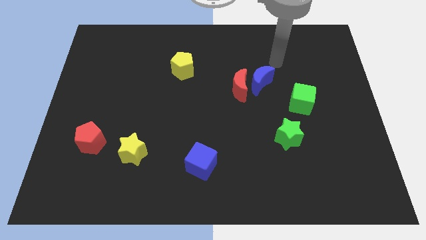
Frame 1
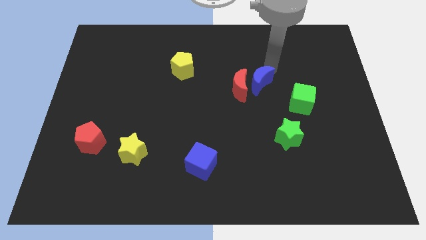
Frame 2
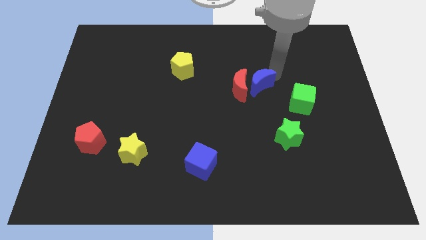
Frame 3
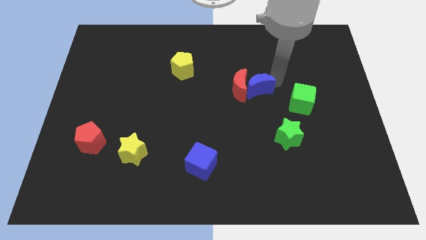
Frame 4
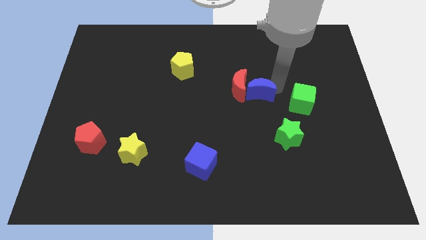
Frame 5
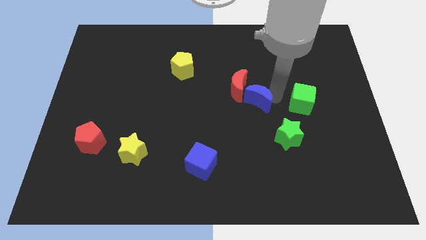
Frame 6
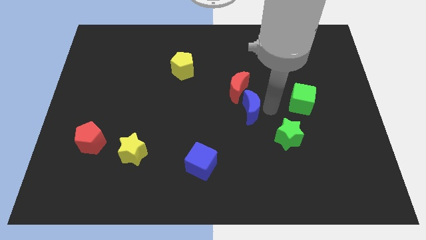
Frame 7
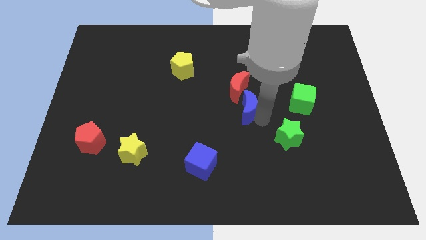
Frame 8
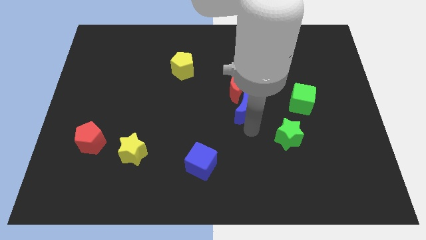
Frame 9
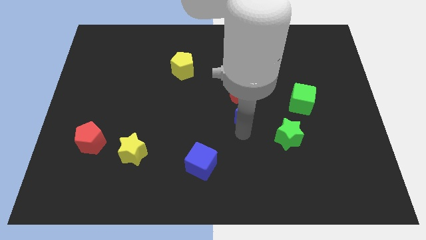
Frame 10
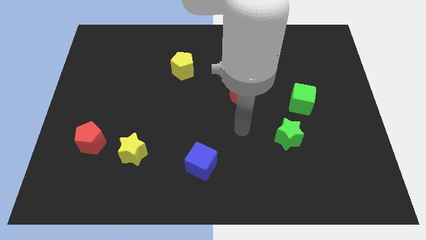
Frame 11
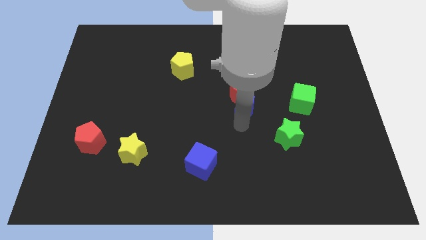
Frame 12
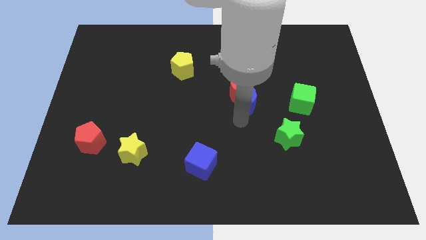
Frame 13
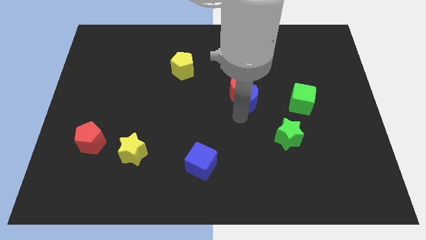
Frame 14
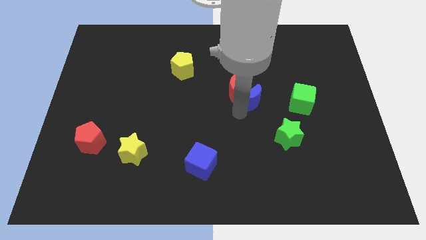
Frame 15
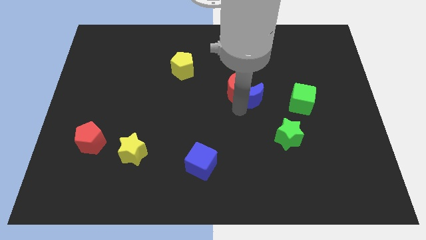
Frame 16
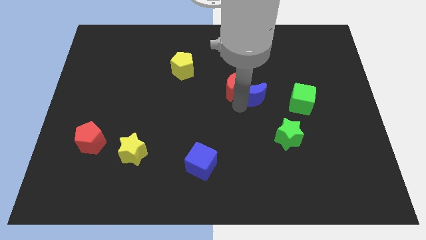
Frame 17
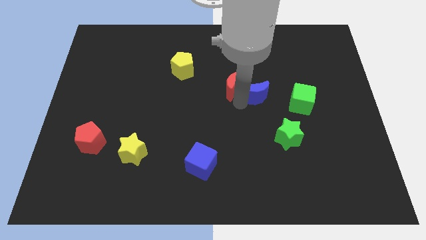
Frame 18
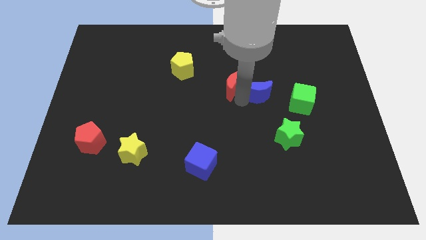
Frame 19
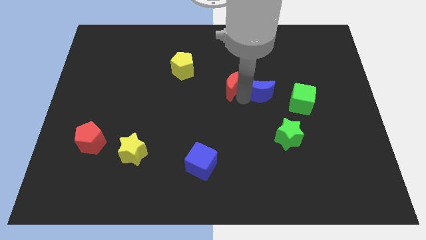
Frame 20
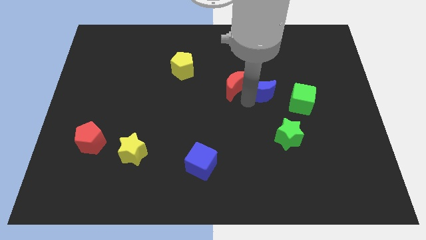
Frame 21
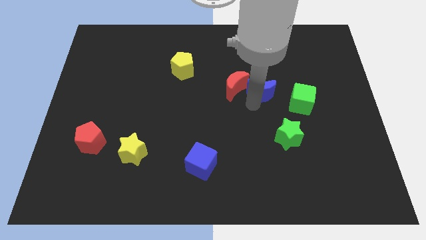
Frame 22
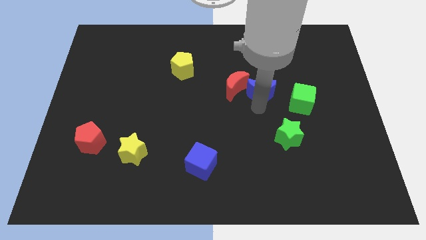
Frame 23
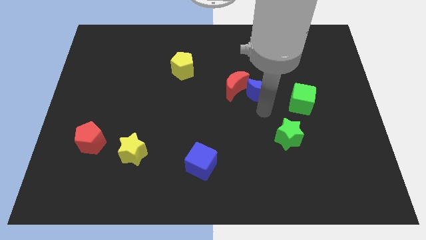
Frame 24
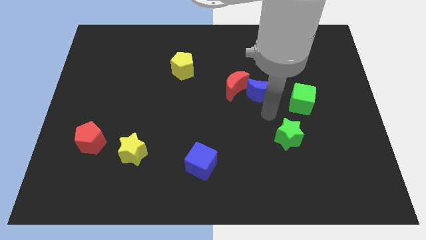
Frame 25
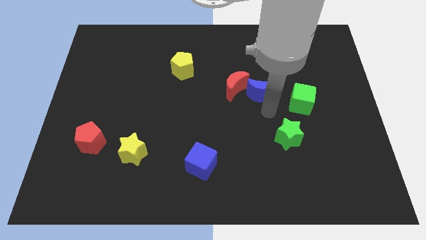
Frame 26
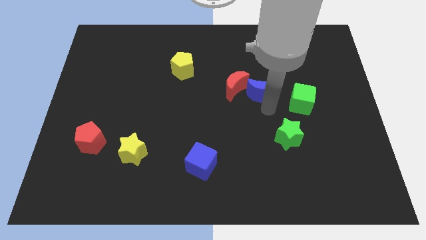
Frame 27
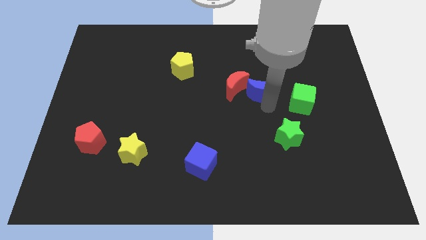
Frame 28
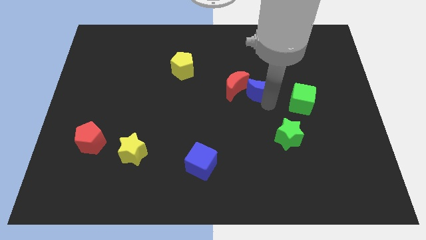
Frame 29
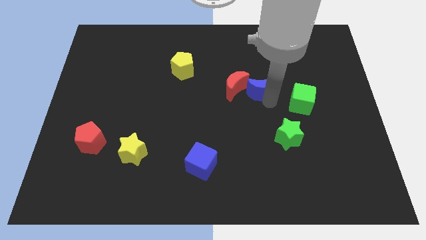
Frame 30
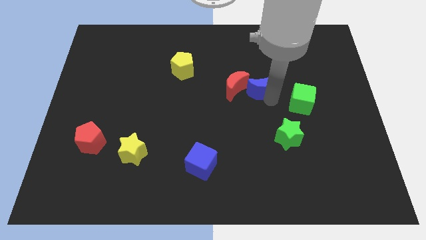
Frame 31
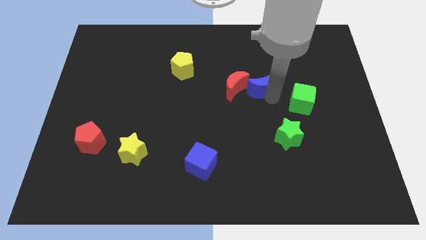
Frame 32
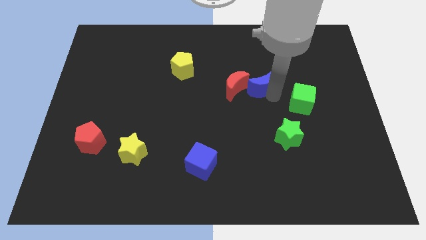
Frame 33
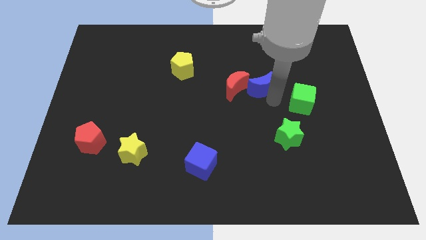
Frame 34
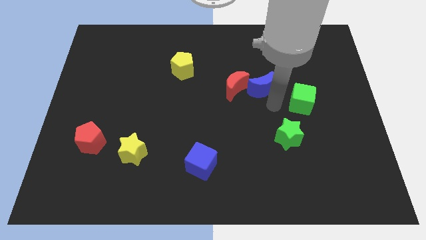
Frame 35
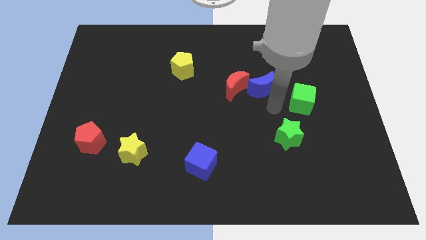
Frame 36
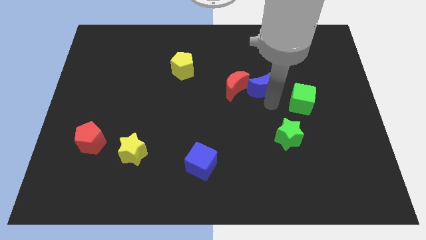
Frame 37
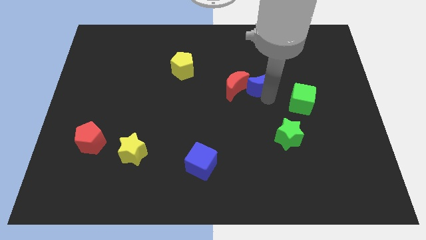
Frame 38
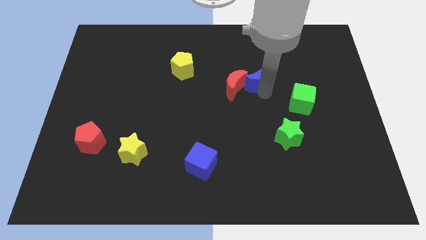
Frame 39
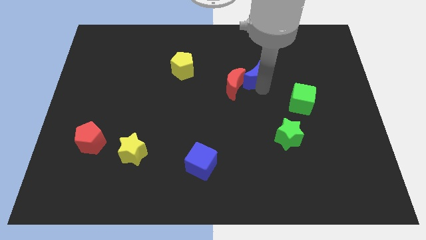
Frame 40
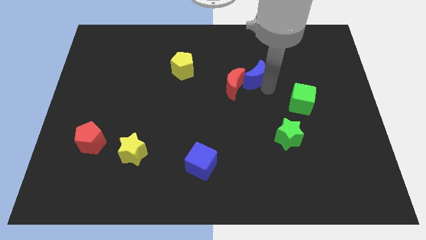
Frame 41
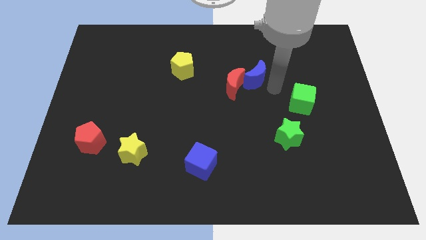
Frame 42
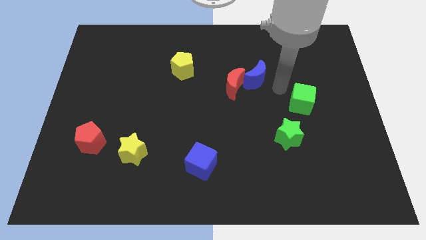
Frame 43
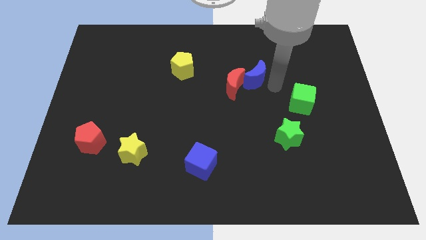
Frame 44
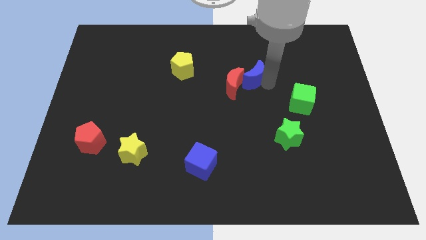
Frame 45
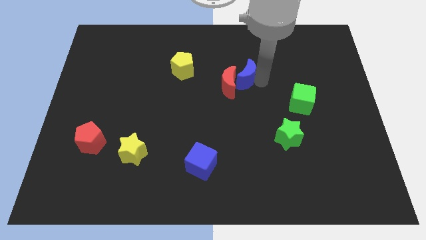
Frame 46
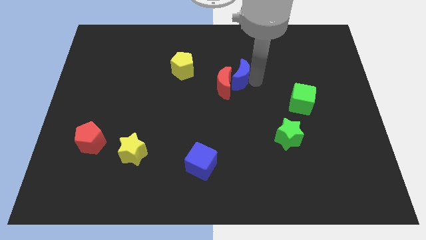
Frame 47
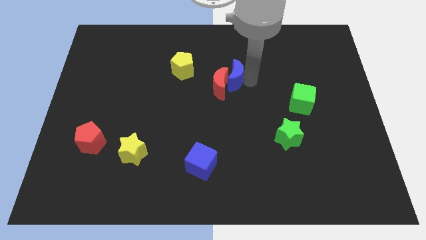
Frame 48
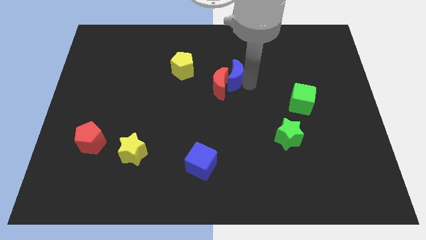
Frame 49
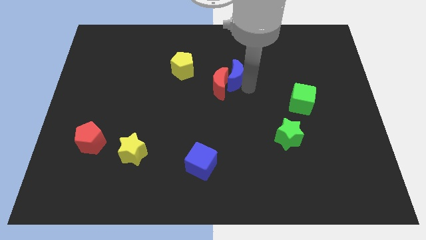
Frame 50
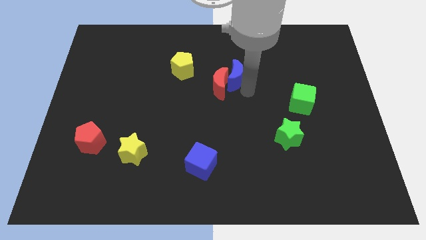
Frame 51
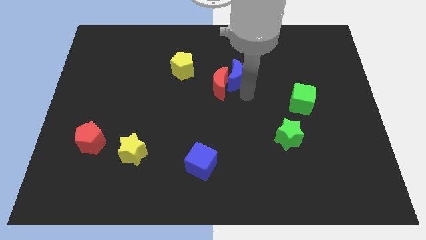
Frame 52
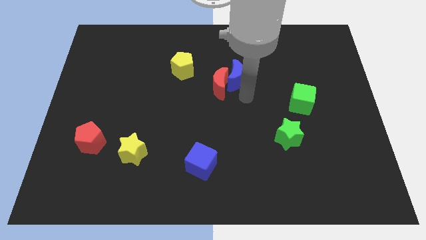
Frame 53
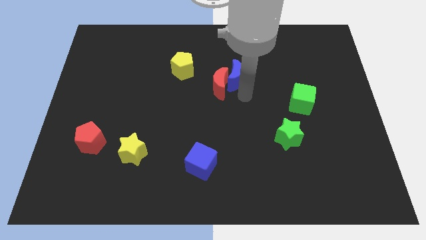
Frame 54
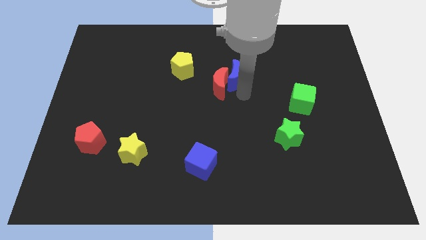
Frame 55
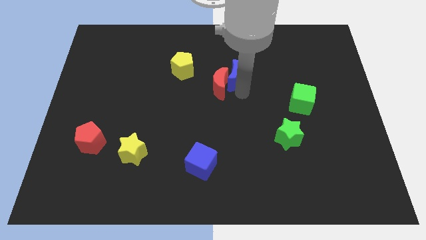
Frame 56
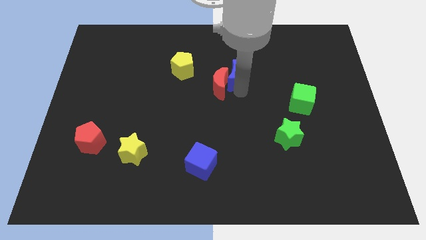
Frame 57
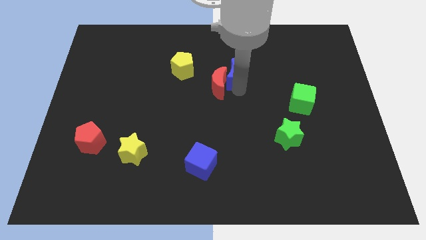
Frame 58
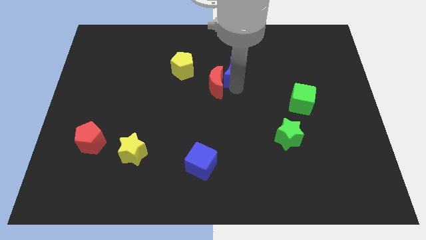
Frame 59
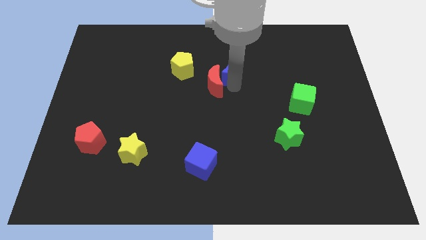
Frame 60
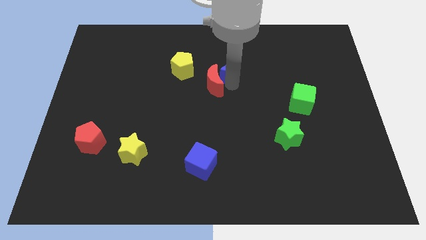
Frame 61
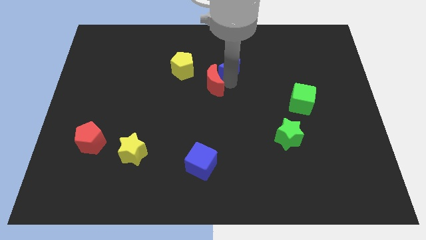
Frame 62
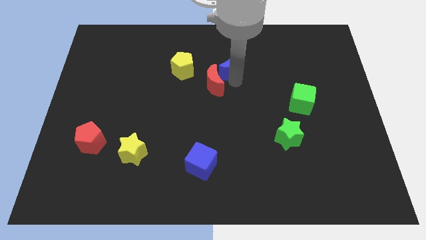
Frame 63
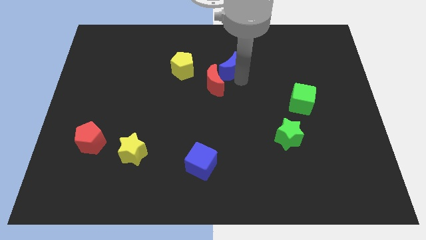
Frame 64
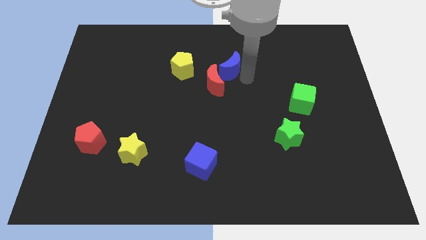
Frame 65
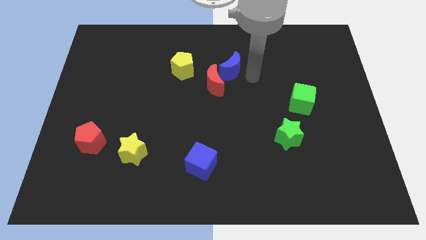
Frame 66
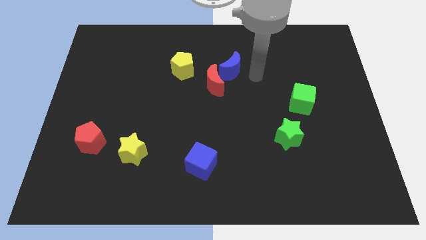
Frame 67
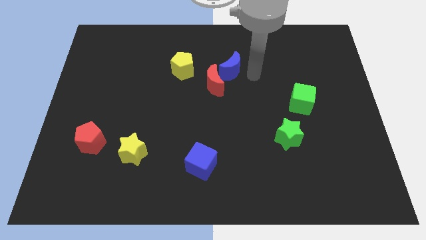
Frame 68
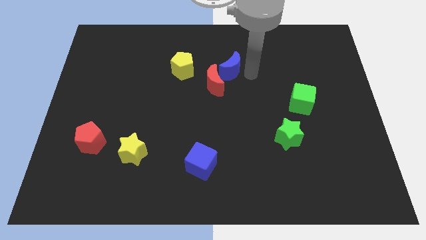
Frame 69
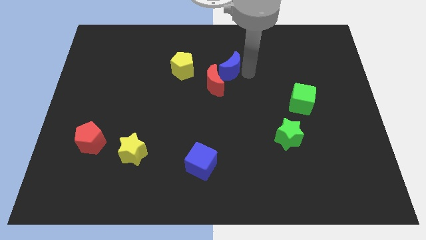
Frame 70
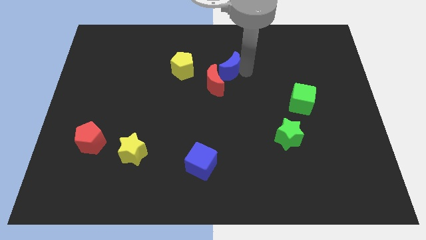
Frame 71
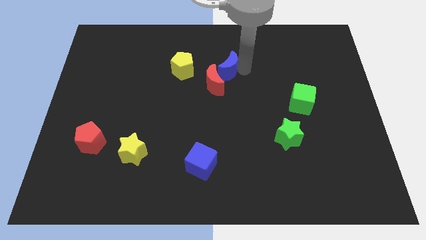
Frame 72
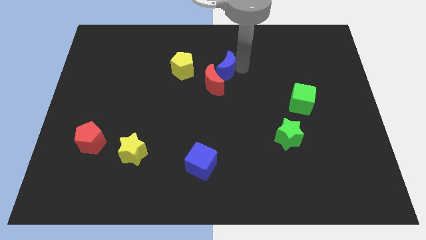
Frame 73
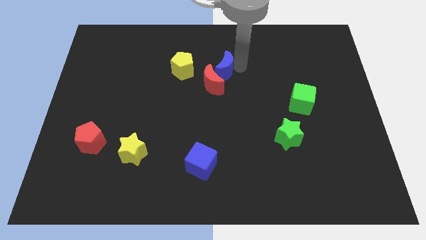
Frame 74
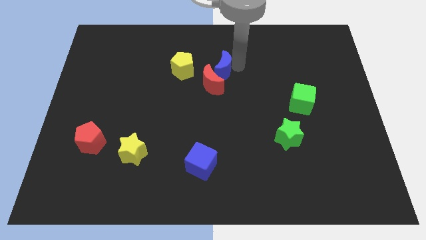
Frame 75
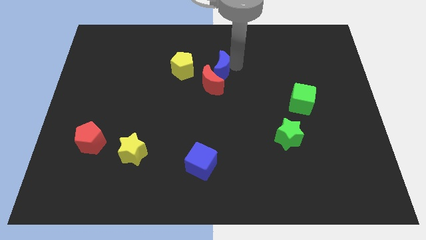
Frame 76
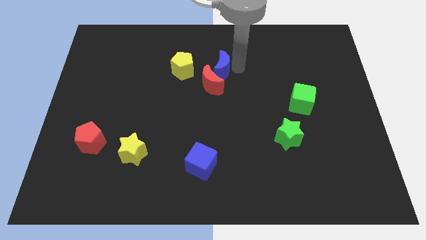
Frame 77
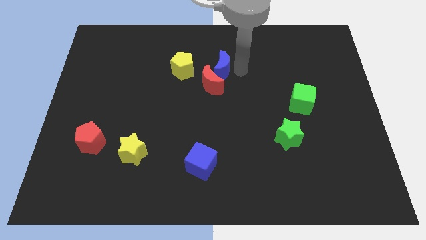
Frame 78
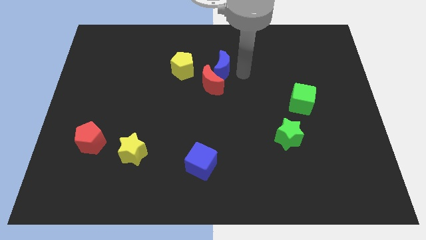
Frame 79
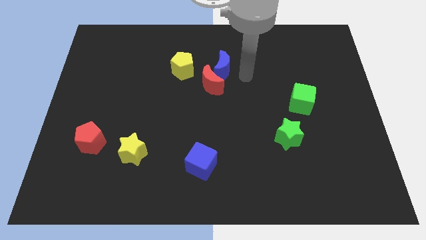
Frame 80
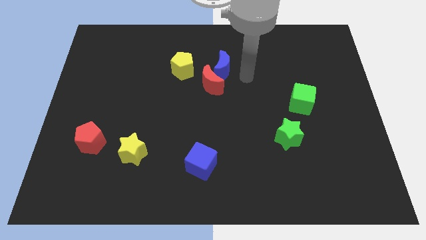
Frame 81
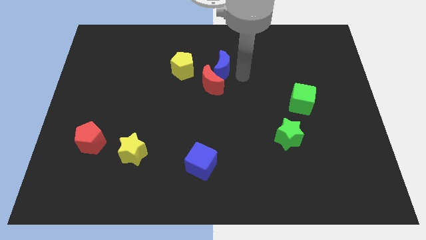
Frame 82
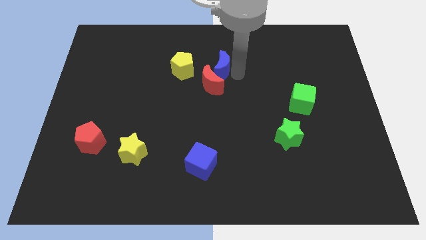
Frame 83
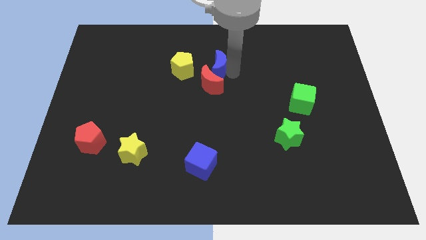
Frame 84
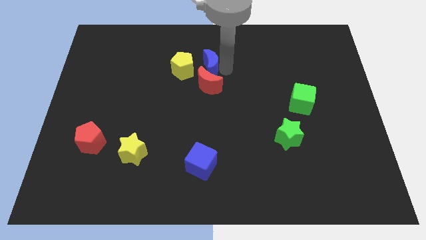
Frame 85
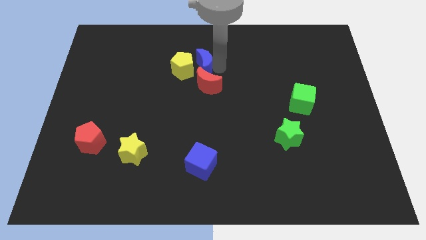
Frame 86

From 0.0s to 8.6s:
move the blue moon close to the yellow pentagon
